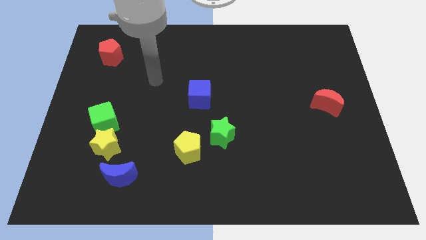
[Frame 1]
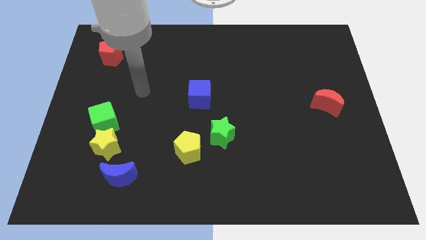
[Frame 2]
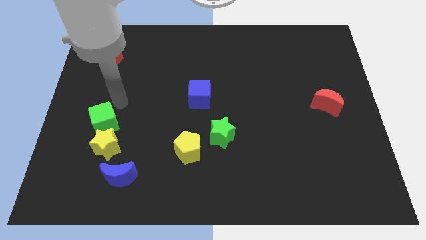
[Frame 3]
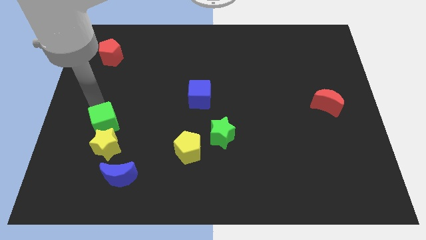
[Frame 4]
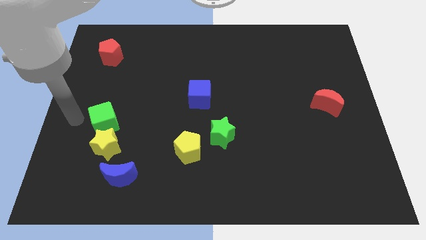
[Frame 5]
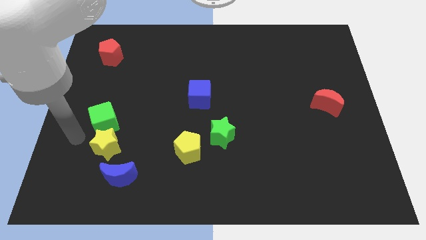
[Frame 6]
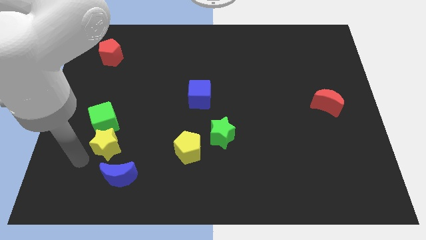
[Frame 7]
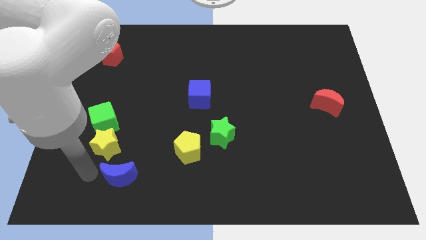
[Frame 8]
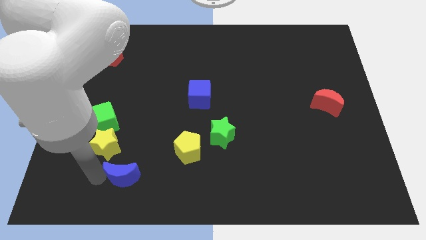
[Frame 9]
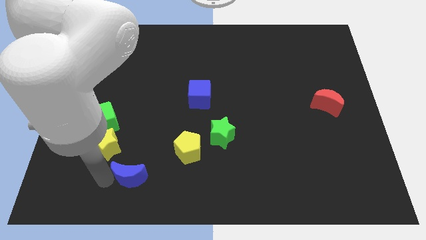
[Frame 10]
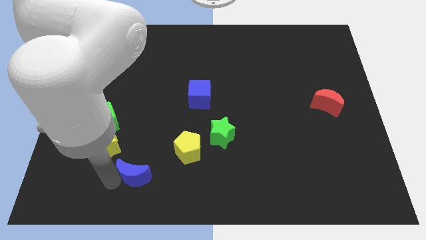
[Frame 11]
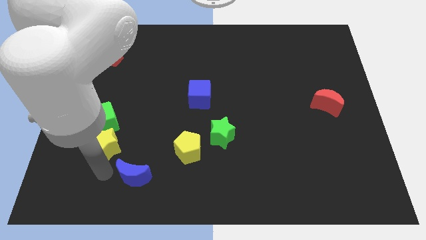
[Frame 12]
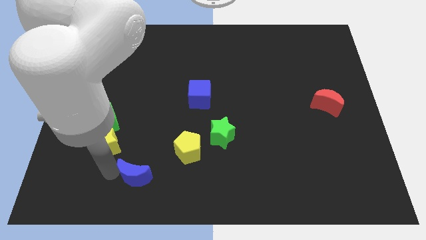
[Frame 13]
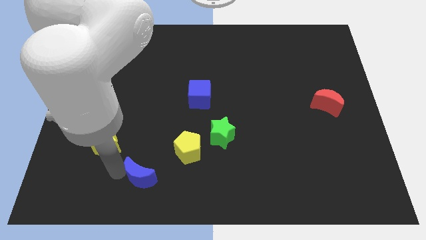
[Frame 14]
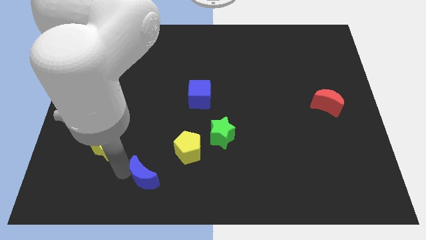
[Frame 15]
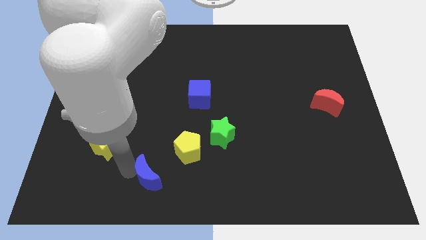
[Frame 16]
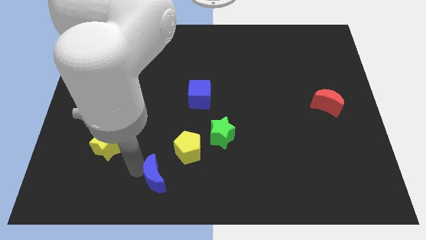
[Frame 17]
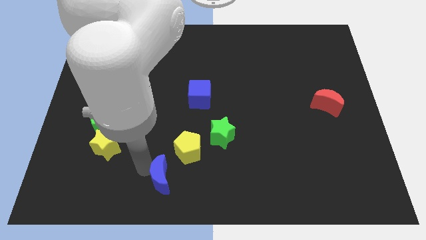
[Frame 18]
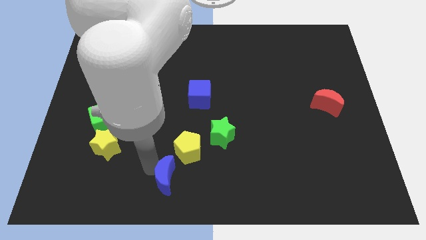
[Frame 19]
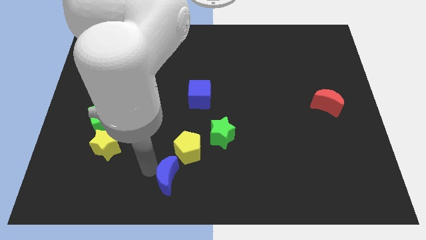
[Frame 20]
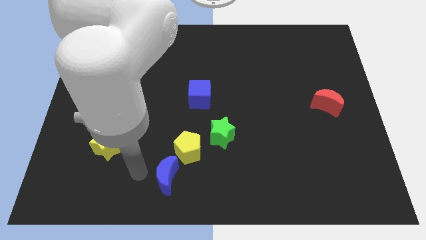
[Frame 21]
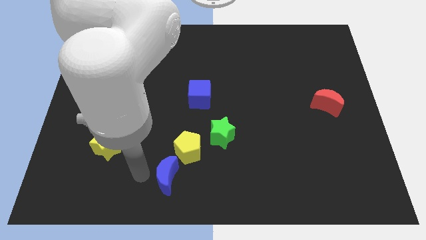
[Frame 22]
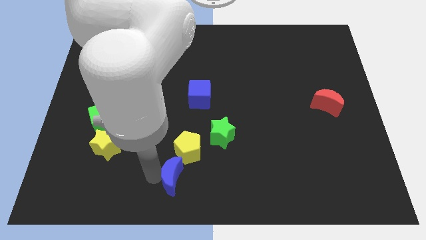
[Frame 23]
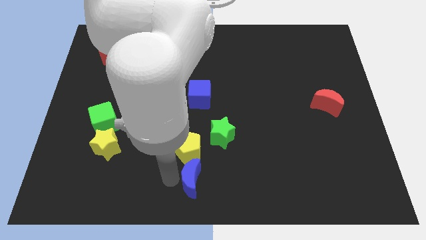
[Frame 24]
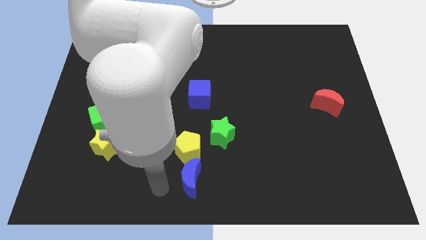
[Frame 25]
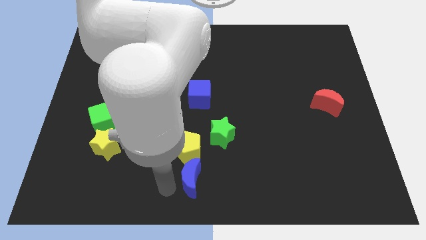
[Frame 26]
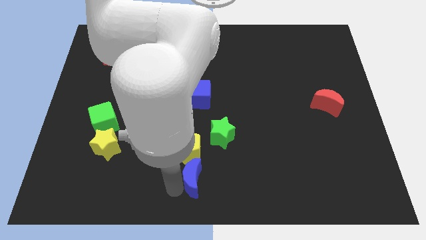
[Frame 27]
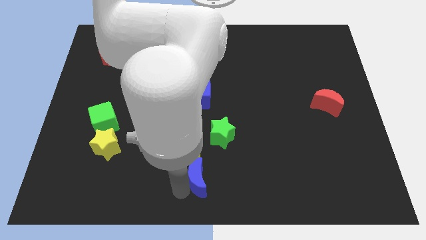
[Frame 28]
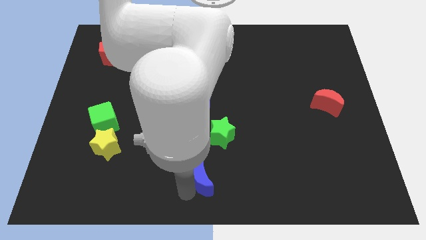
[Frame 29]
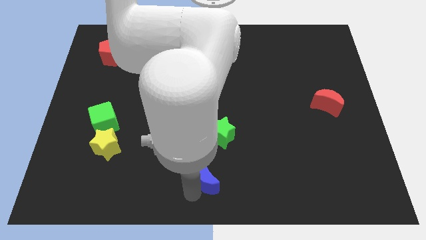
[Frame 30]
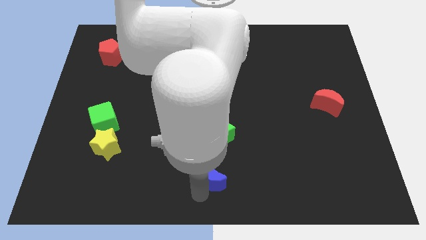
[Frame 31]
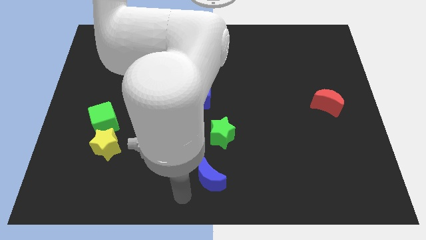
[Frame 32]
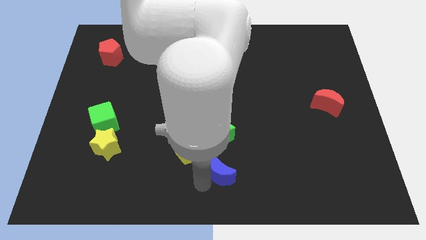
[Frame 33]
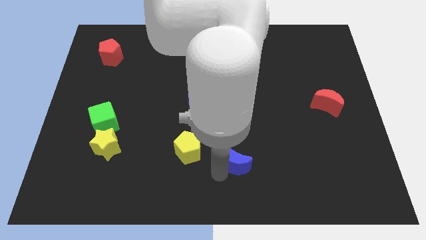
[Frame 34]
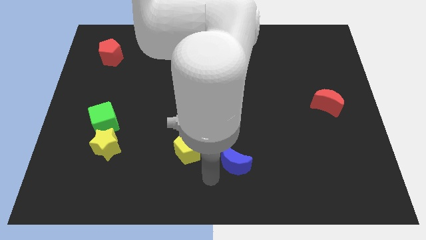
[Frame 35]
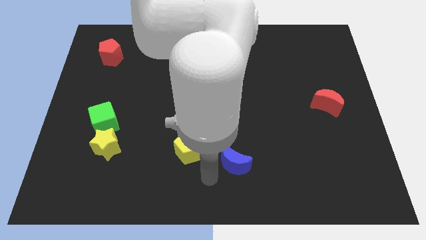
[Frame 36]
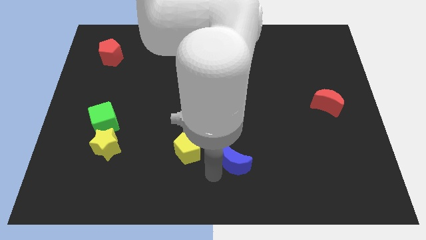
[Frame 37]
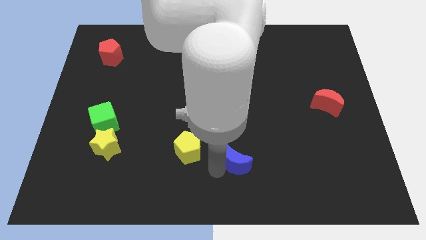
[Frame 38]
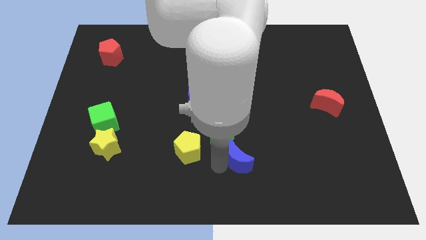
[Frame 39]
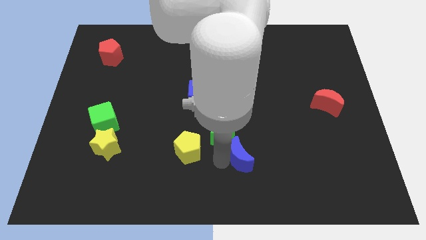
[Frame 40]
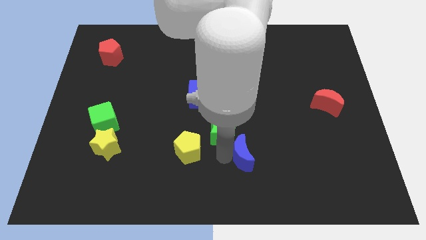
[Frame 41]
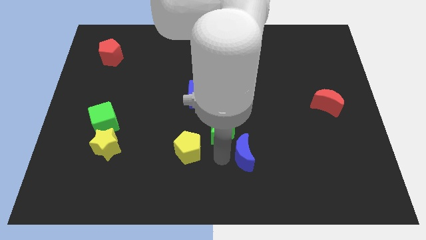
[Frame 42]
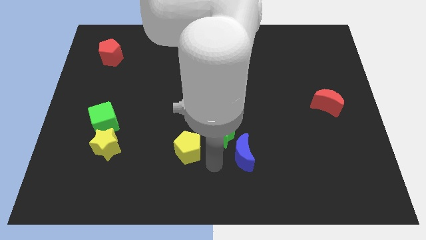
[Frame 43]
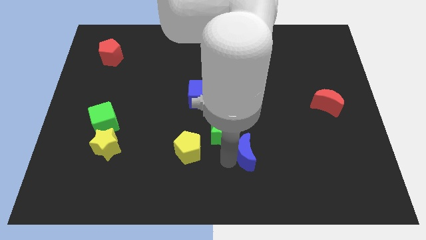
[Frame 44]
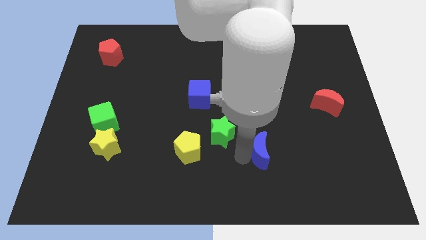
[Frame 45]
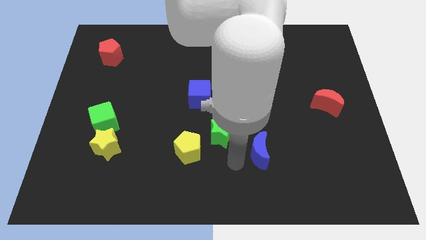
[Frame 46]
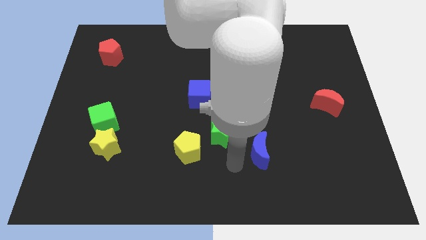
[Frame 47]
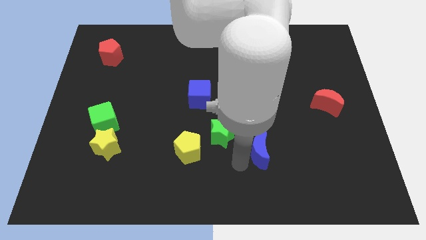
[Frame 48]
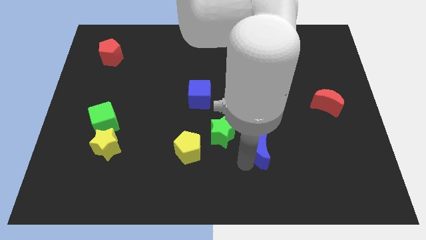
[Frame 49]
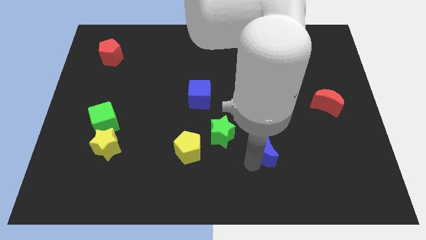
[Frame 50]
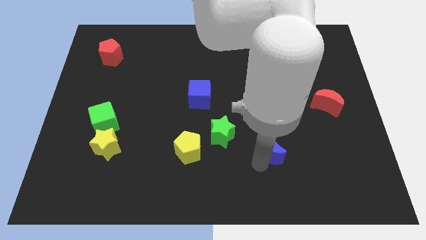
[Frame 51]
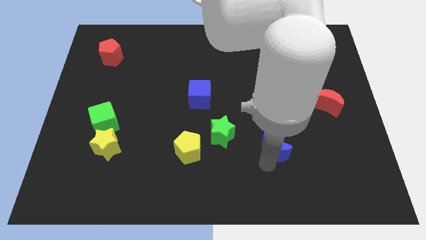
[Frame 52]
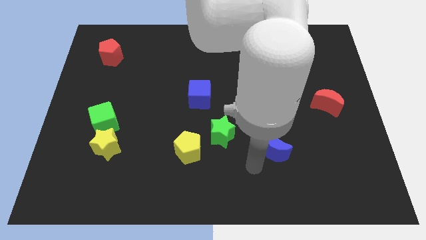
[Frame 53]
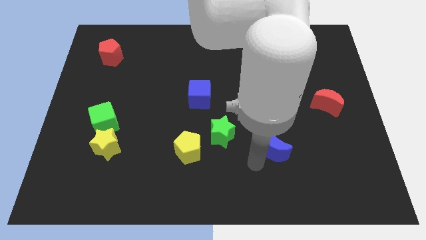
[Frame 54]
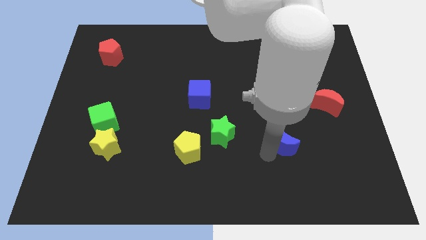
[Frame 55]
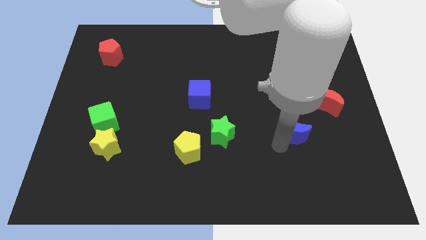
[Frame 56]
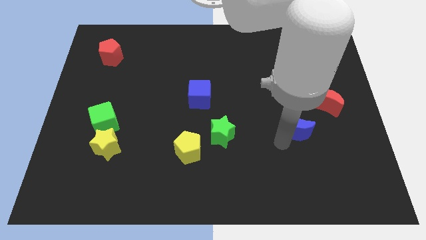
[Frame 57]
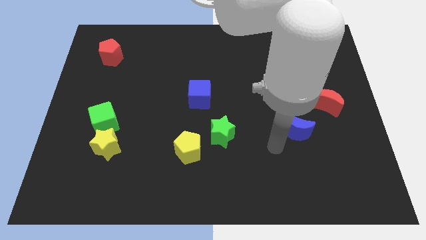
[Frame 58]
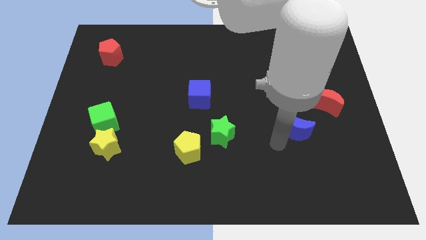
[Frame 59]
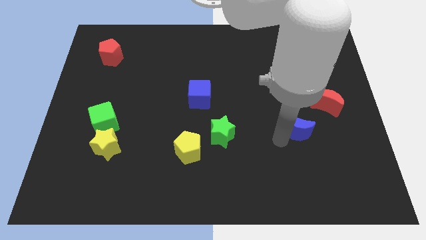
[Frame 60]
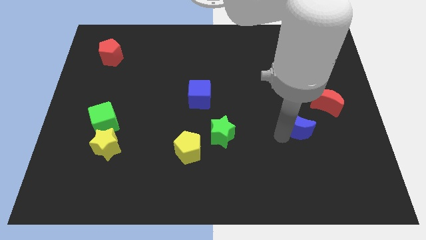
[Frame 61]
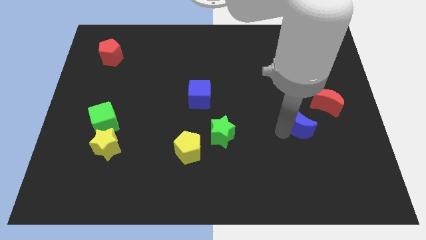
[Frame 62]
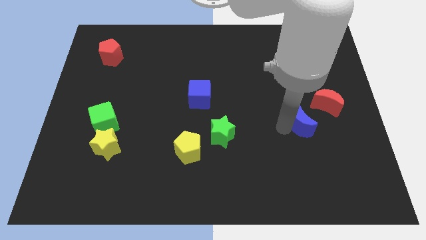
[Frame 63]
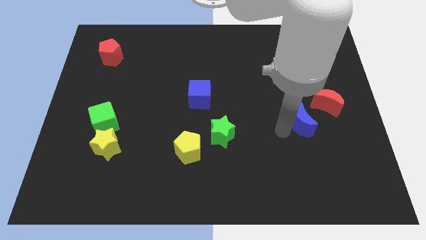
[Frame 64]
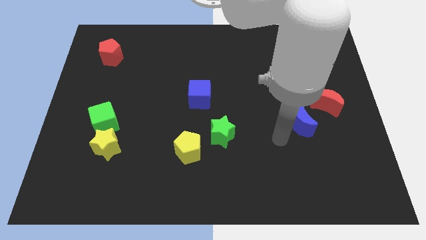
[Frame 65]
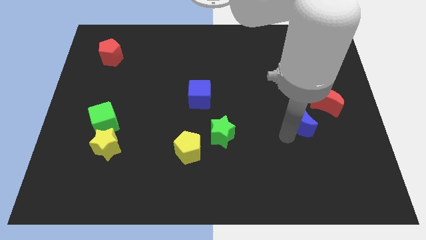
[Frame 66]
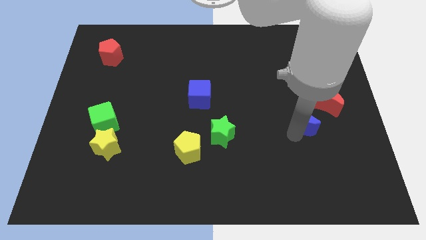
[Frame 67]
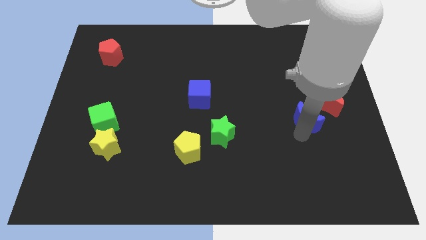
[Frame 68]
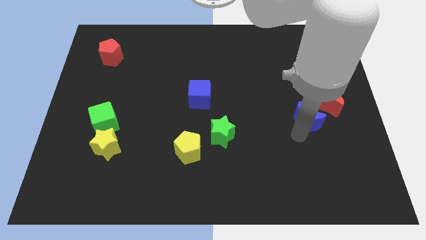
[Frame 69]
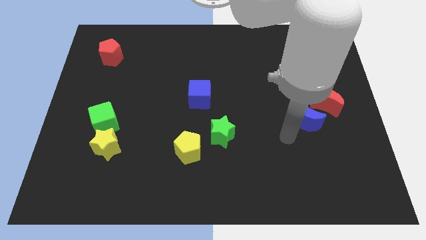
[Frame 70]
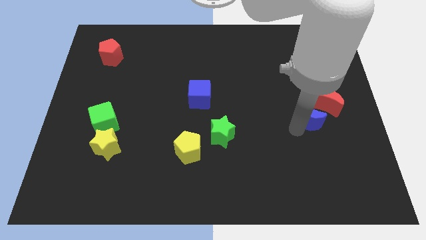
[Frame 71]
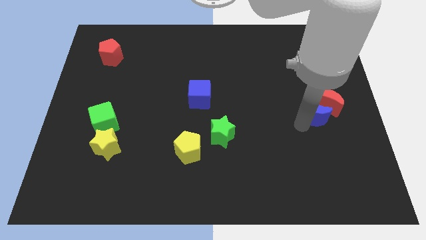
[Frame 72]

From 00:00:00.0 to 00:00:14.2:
push the blue moon next to the red moon
